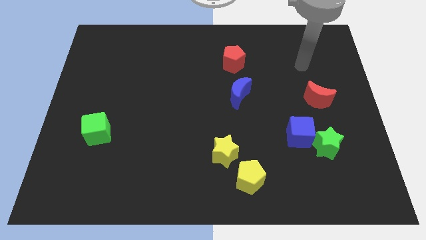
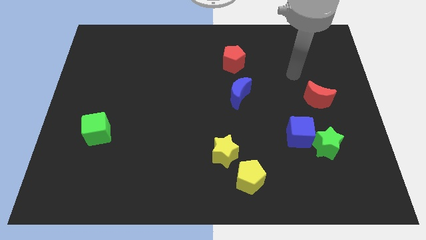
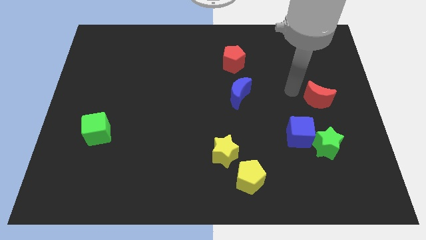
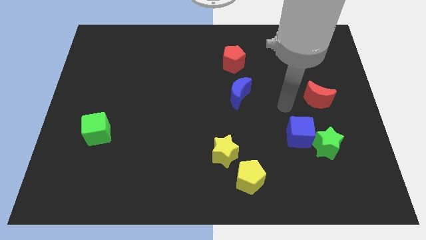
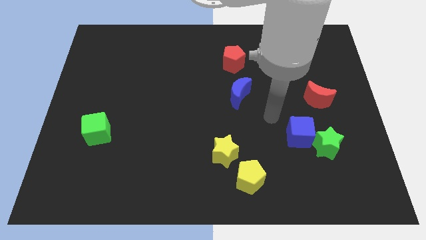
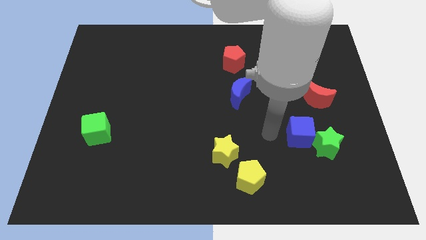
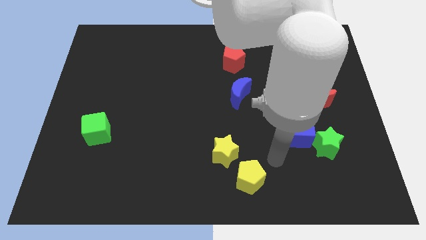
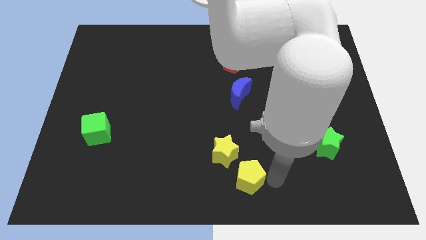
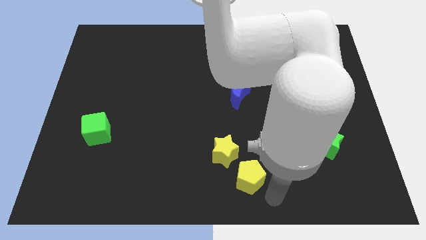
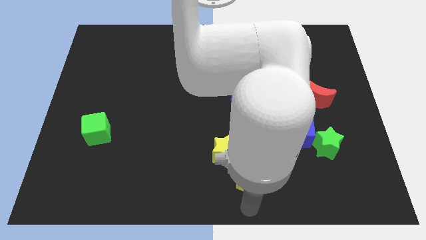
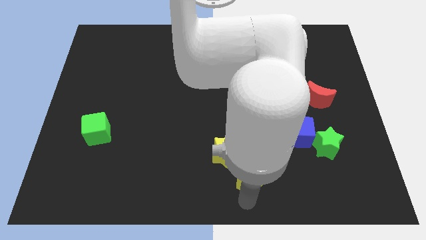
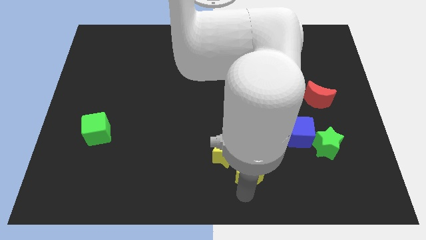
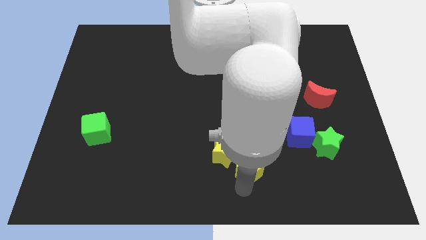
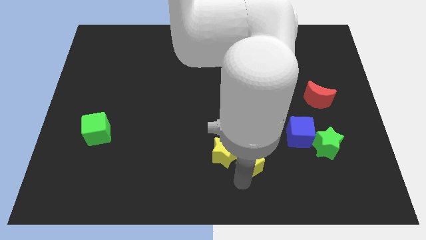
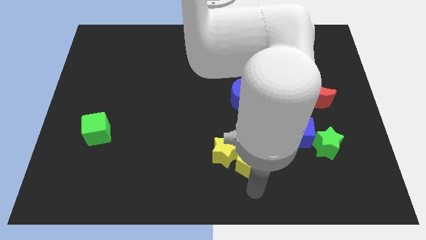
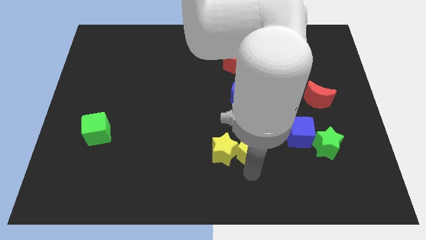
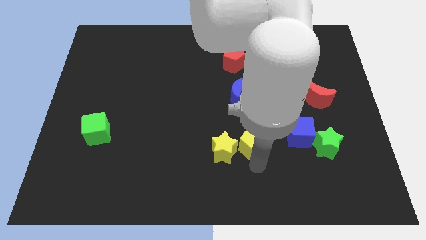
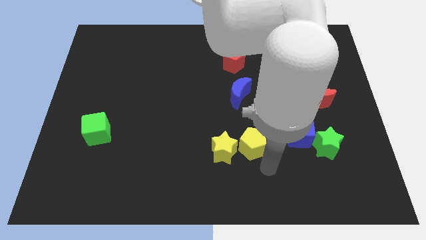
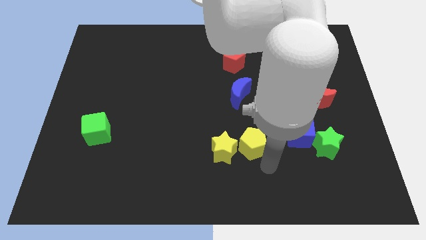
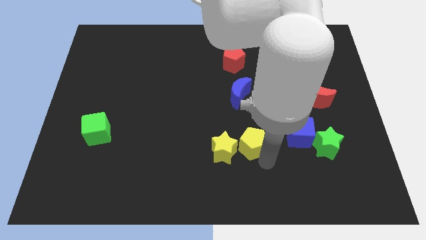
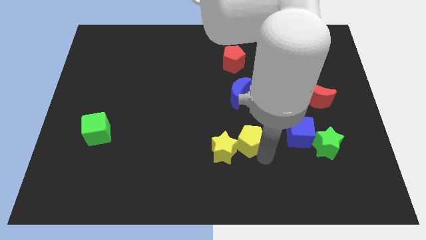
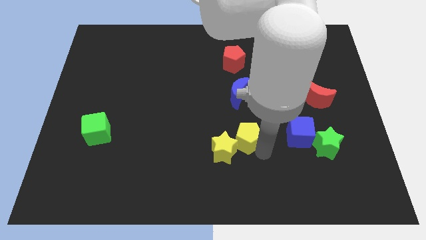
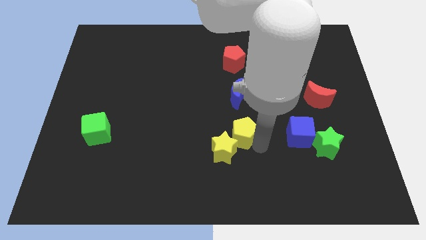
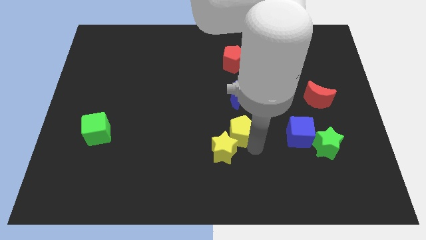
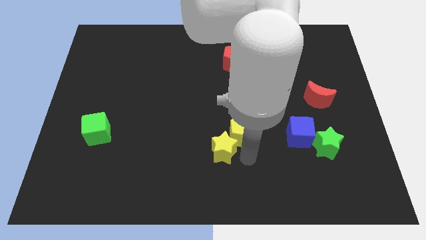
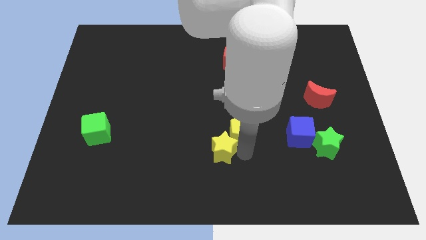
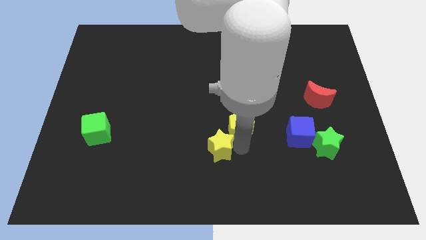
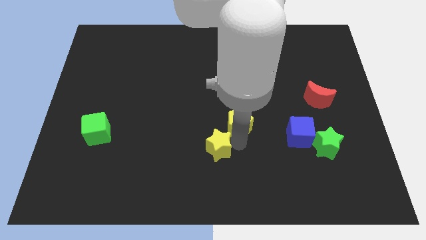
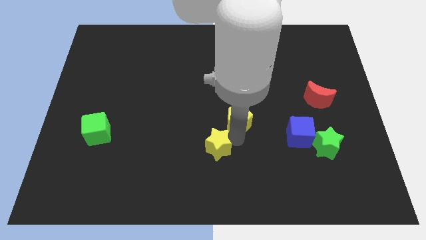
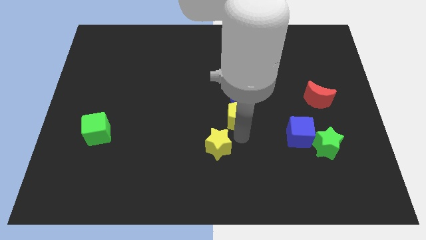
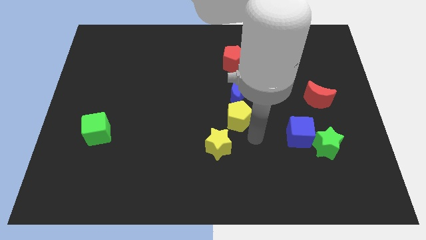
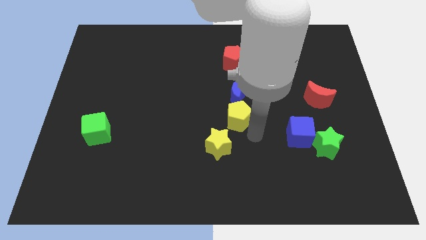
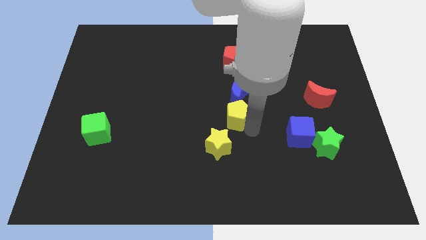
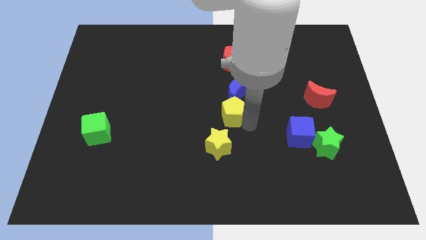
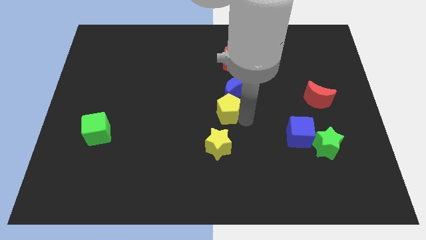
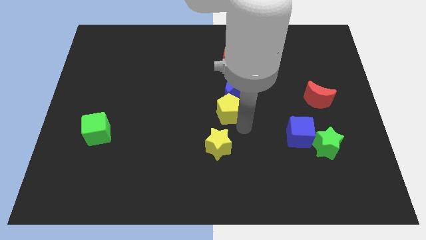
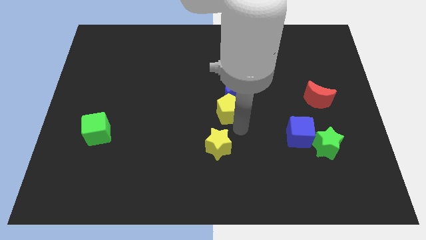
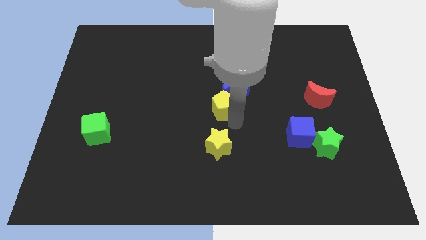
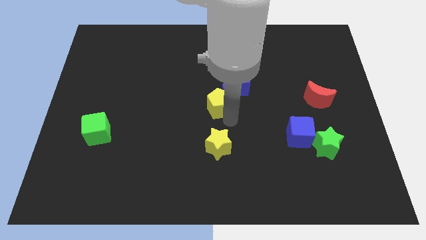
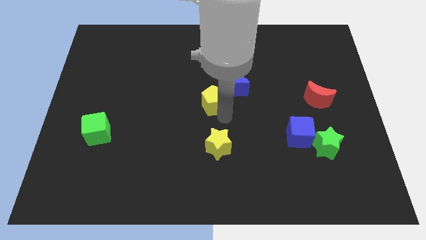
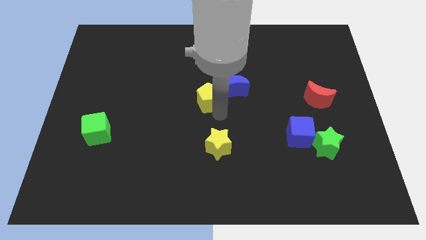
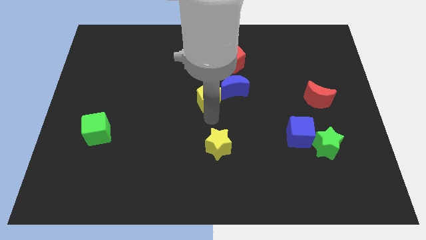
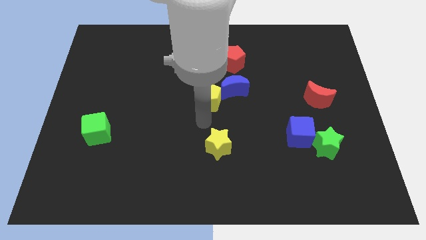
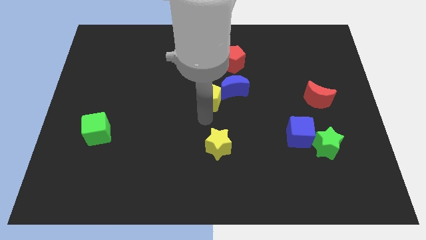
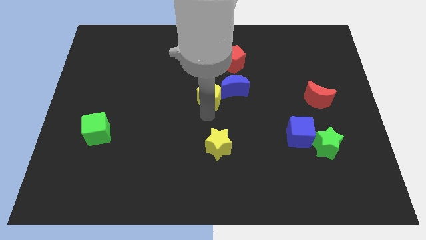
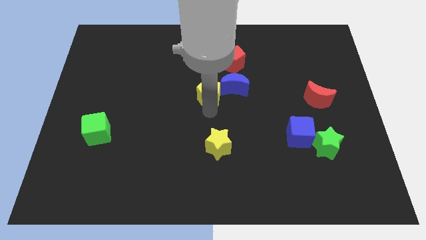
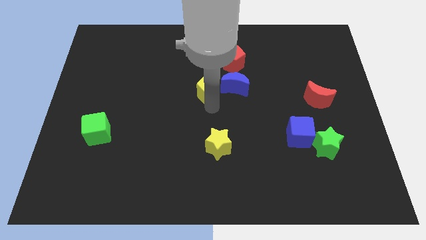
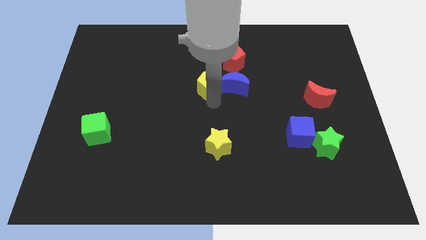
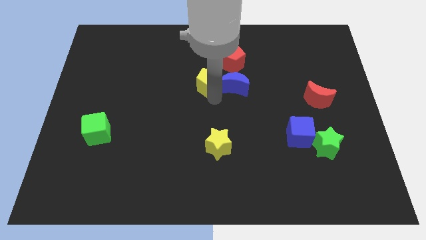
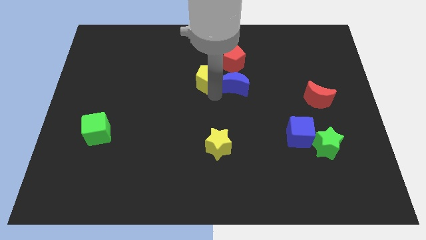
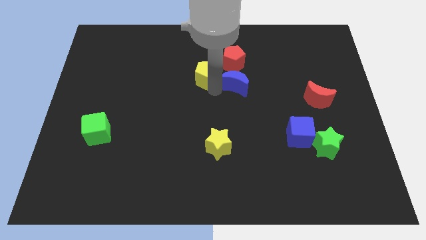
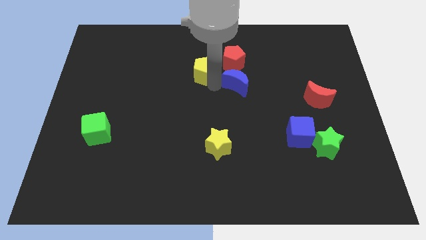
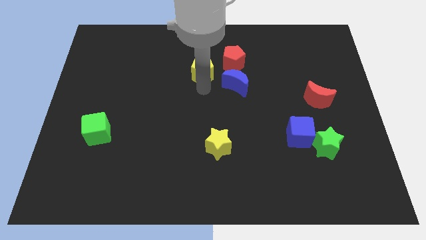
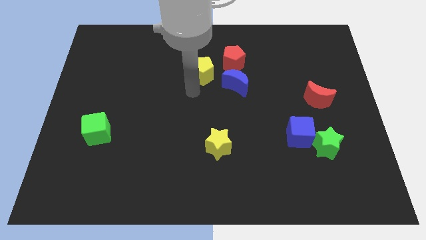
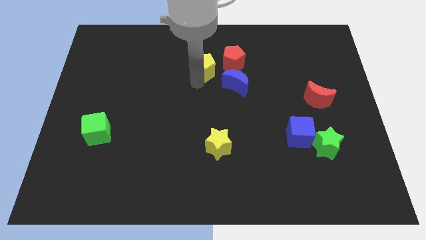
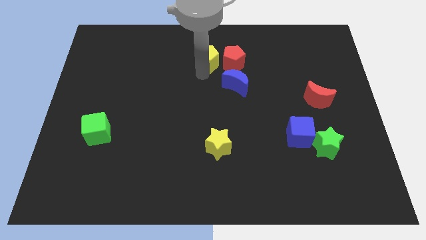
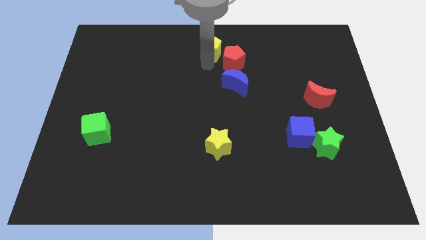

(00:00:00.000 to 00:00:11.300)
push the yellow pentagon to the towards your base
